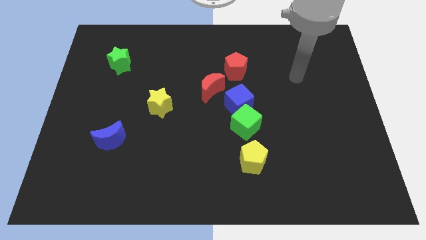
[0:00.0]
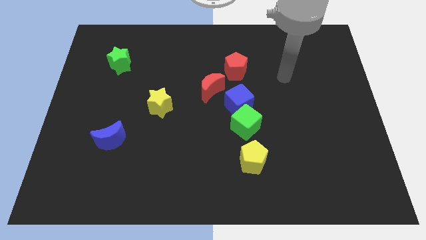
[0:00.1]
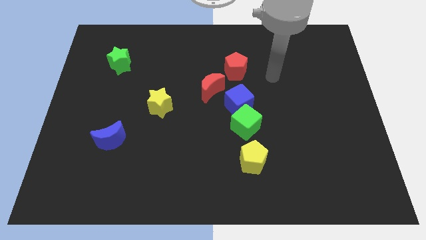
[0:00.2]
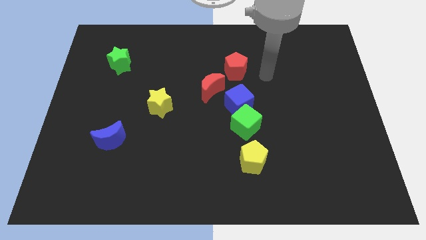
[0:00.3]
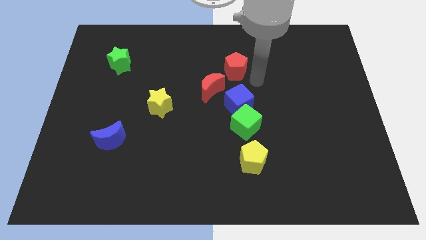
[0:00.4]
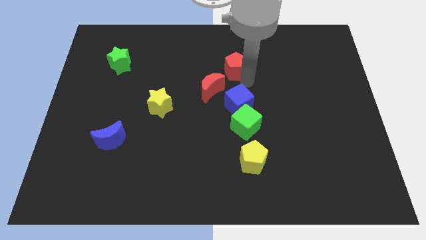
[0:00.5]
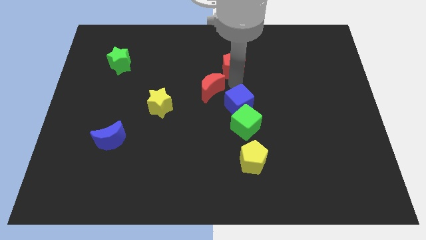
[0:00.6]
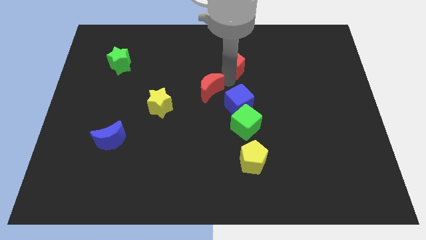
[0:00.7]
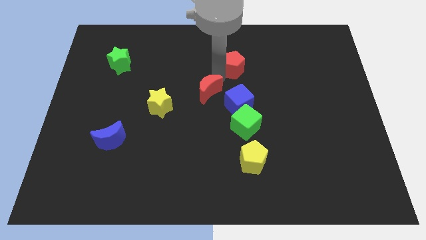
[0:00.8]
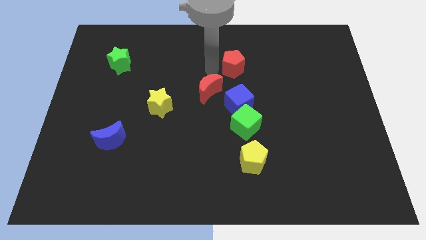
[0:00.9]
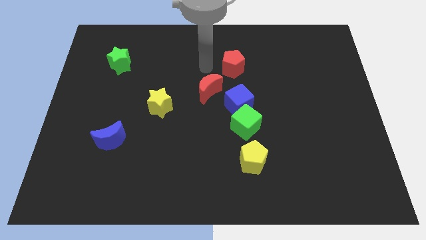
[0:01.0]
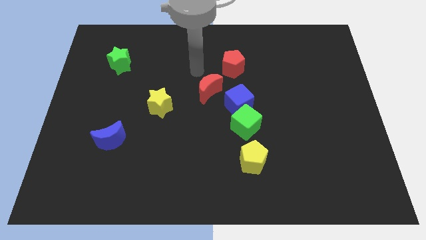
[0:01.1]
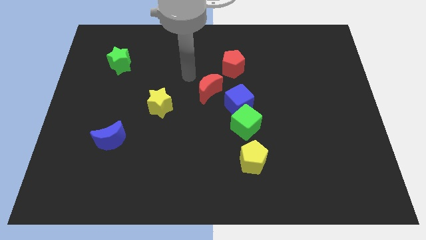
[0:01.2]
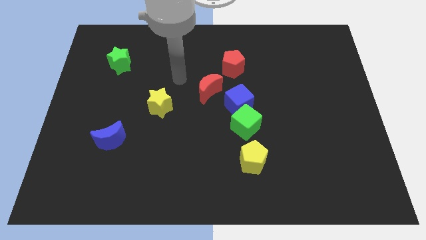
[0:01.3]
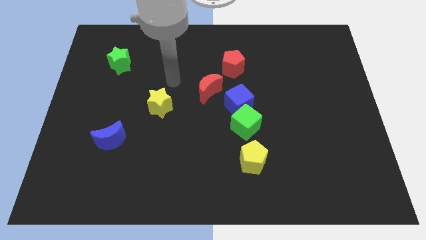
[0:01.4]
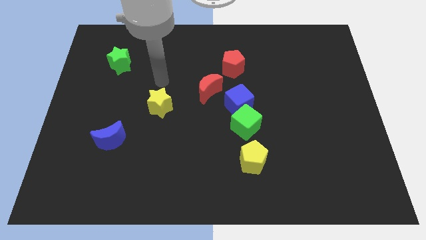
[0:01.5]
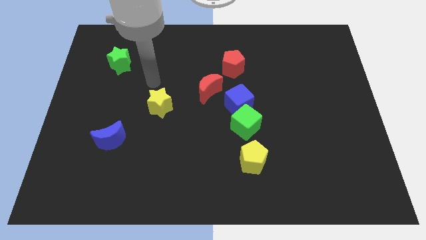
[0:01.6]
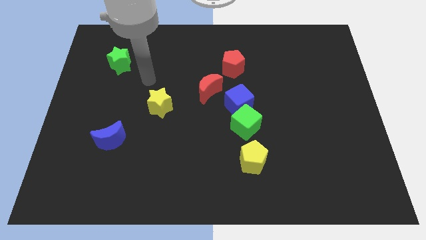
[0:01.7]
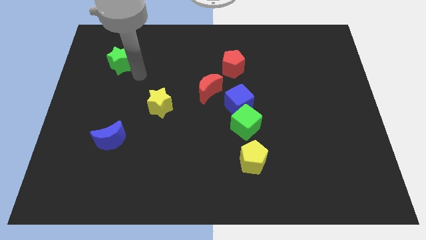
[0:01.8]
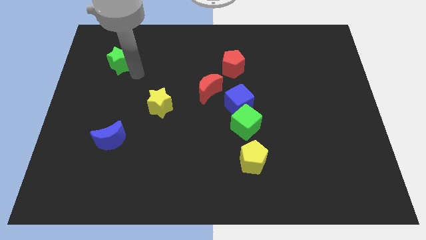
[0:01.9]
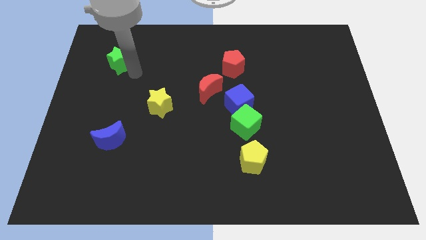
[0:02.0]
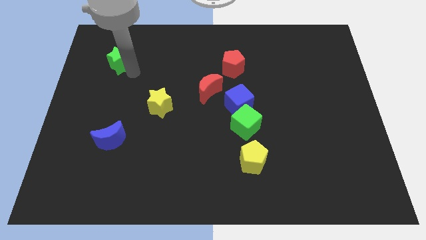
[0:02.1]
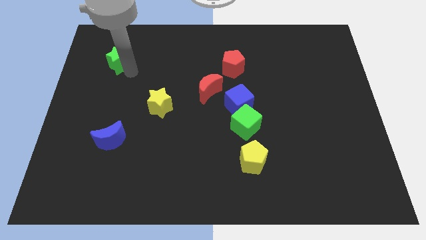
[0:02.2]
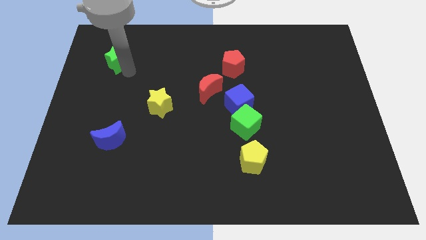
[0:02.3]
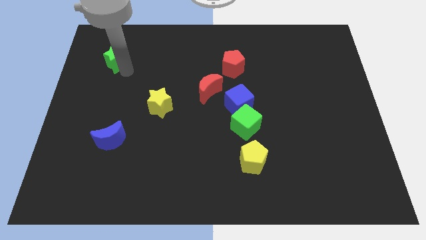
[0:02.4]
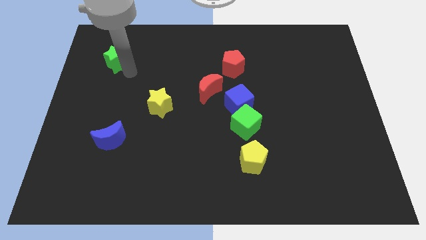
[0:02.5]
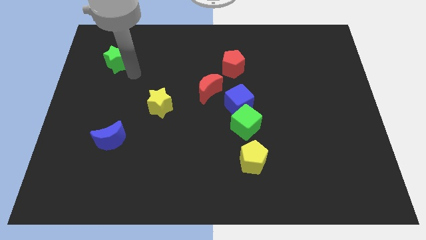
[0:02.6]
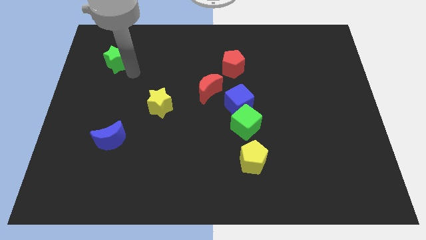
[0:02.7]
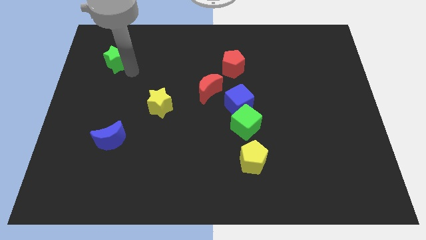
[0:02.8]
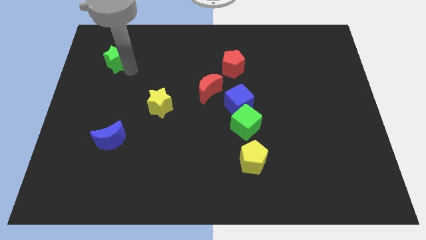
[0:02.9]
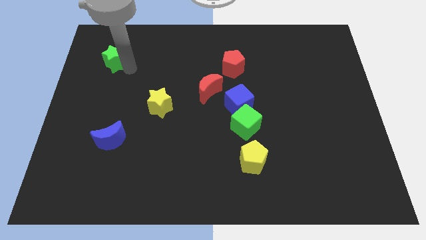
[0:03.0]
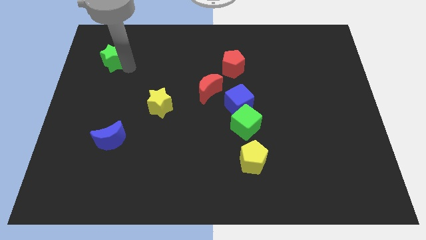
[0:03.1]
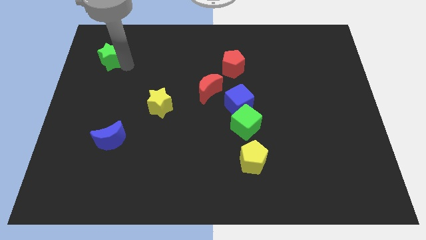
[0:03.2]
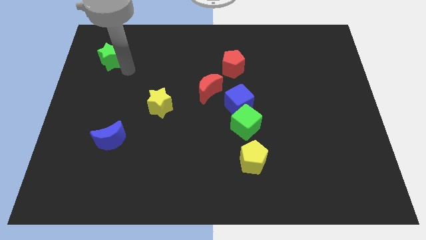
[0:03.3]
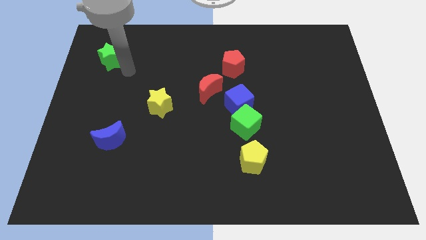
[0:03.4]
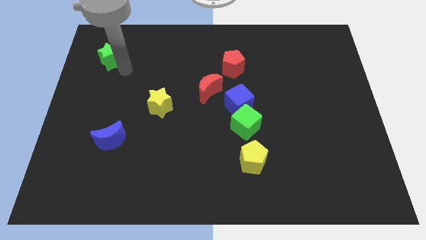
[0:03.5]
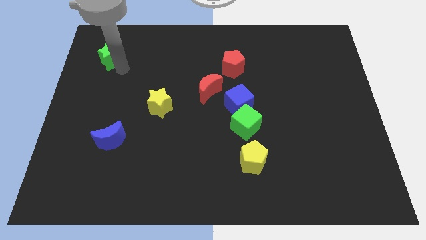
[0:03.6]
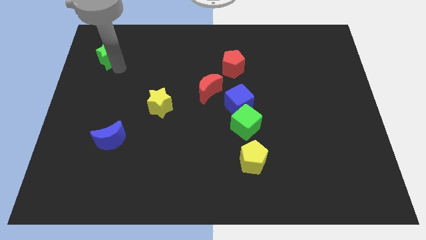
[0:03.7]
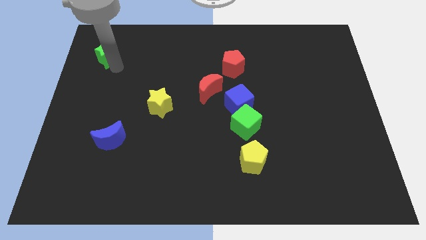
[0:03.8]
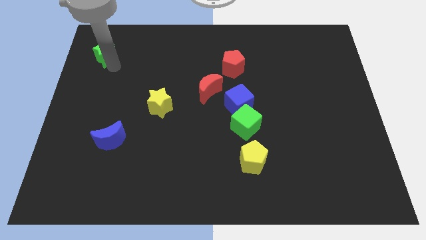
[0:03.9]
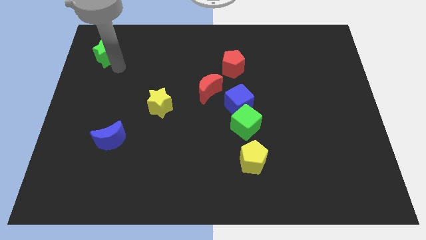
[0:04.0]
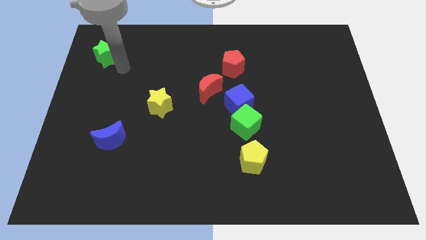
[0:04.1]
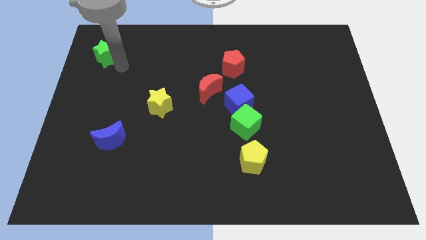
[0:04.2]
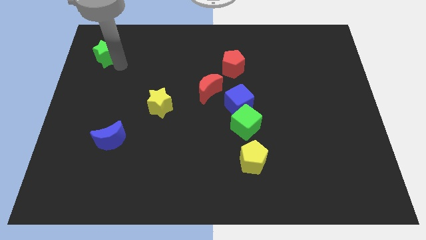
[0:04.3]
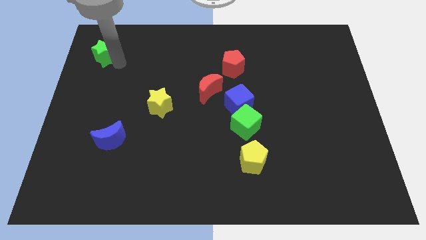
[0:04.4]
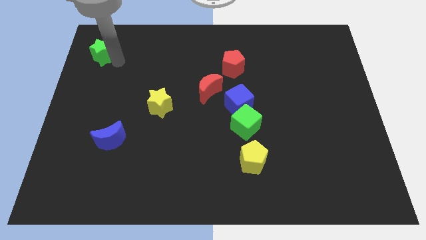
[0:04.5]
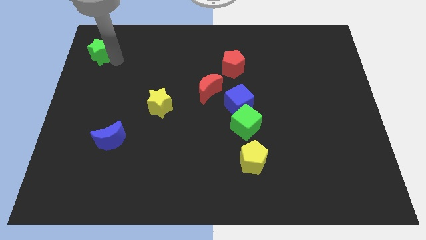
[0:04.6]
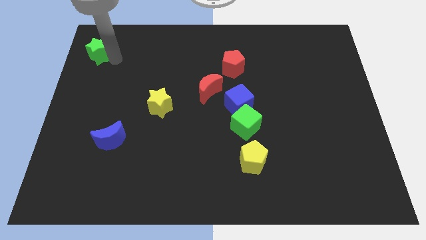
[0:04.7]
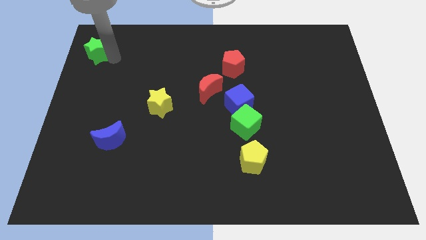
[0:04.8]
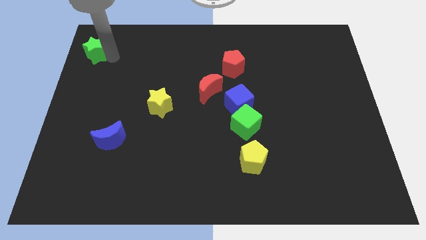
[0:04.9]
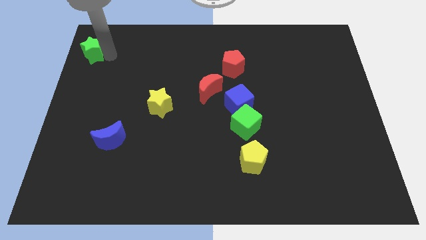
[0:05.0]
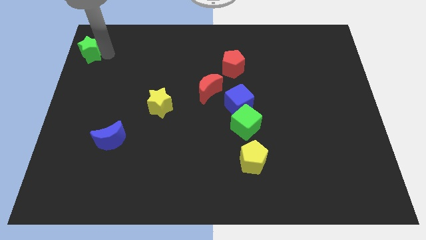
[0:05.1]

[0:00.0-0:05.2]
move the green star to the top left of the board

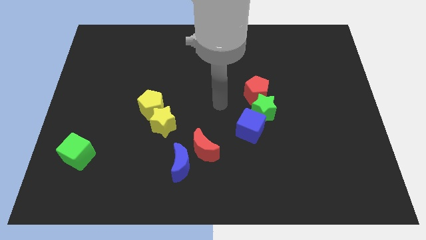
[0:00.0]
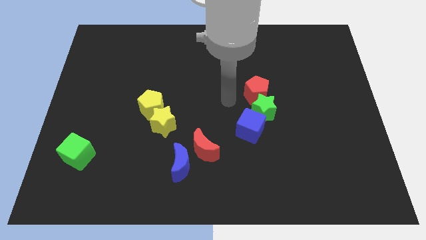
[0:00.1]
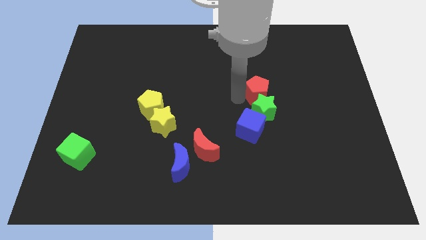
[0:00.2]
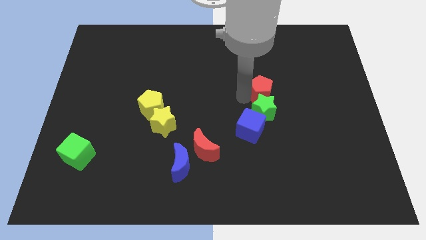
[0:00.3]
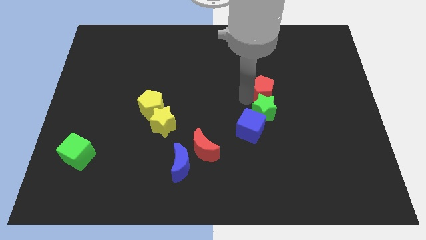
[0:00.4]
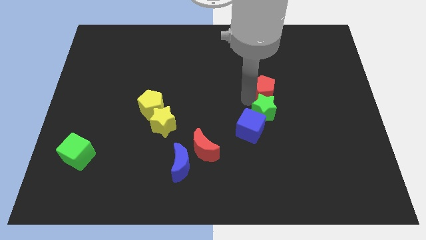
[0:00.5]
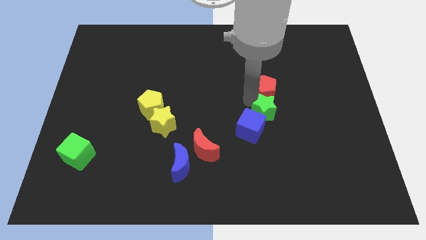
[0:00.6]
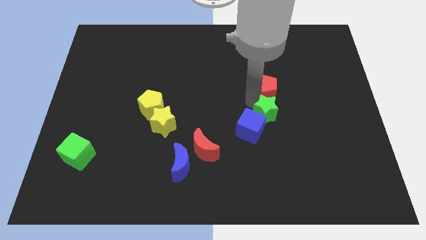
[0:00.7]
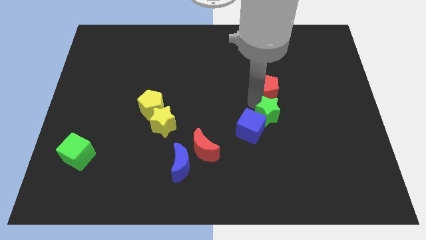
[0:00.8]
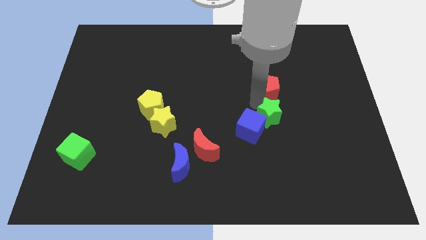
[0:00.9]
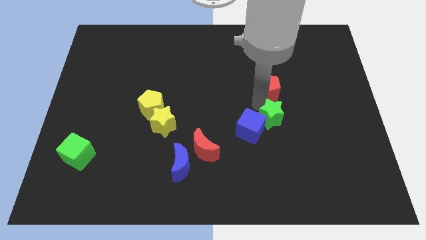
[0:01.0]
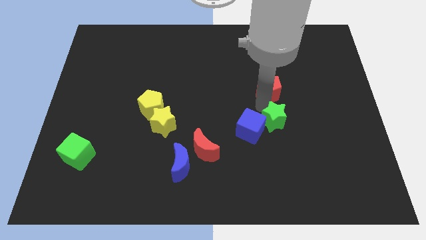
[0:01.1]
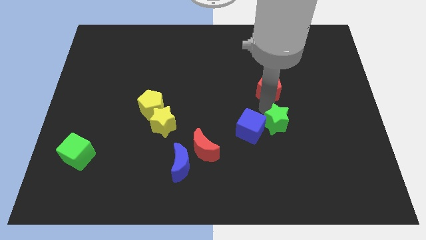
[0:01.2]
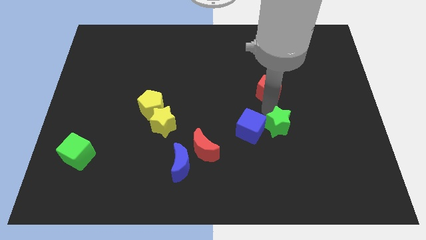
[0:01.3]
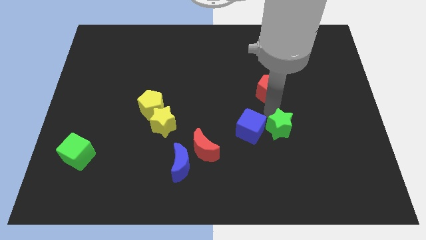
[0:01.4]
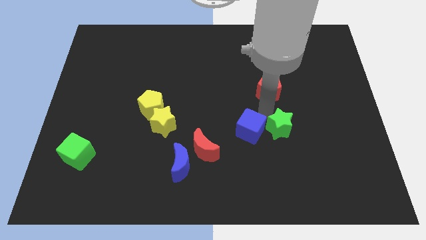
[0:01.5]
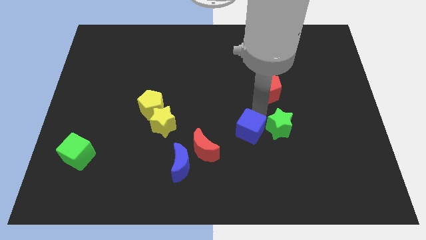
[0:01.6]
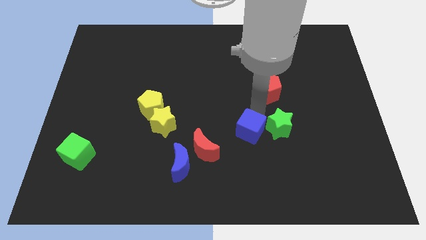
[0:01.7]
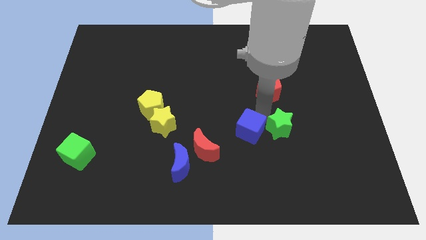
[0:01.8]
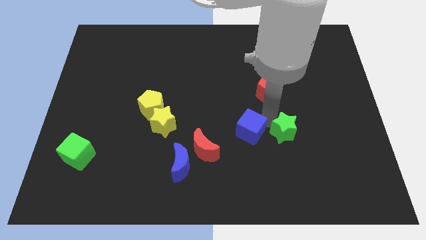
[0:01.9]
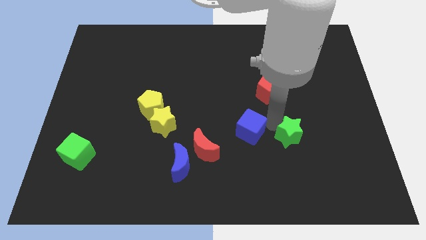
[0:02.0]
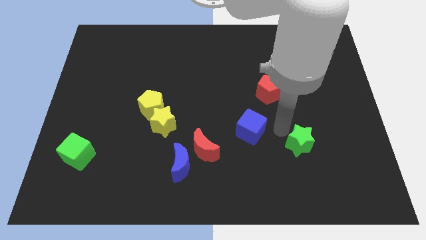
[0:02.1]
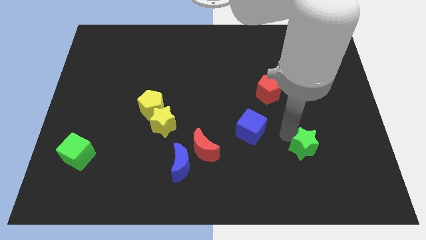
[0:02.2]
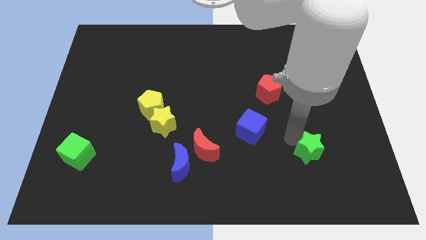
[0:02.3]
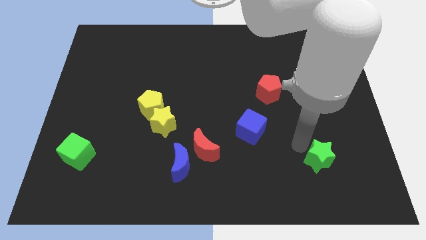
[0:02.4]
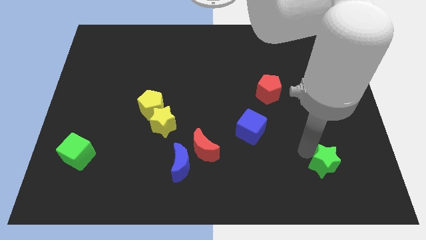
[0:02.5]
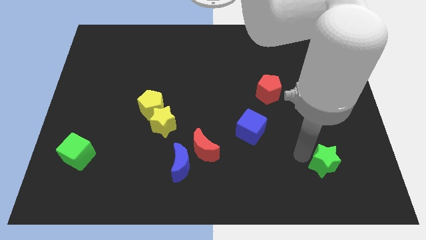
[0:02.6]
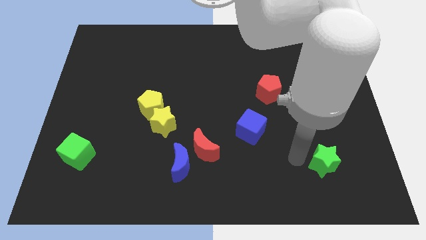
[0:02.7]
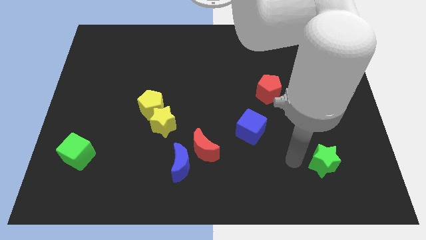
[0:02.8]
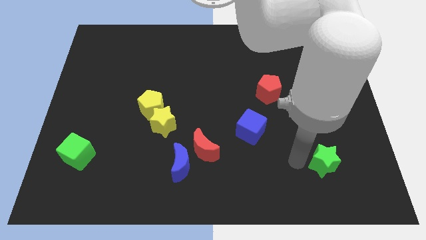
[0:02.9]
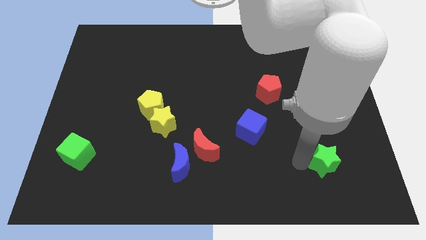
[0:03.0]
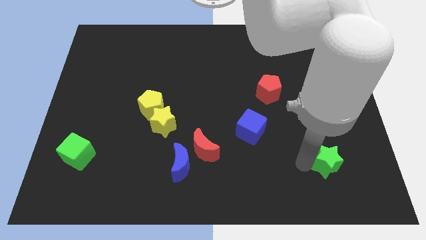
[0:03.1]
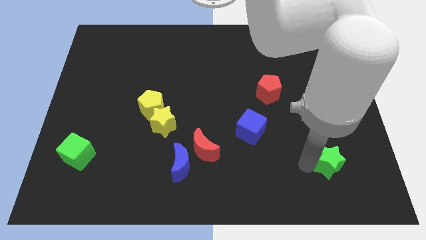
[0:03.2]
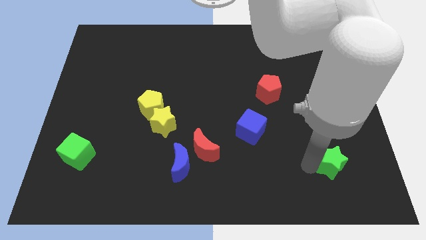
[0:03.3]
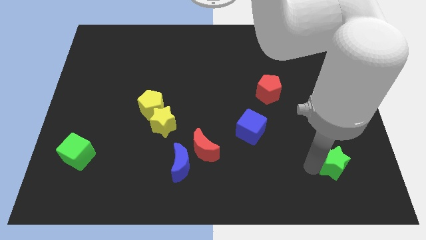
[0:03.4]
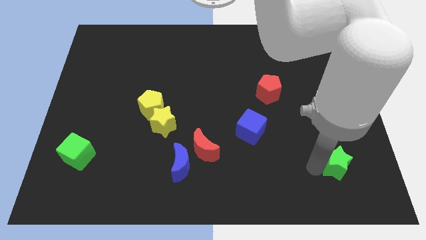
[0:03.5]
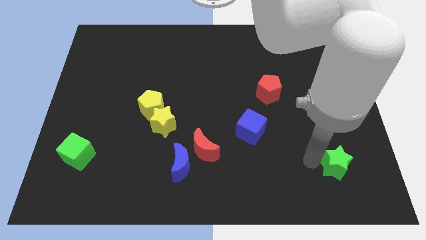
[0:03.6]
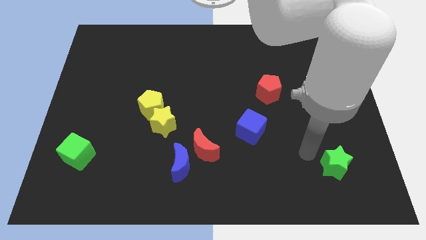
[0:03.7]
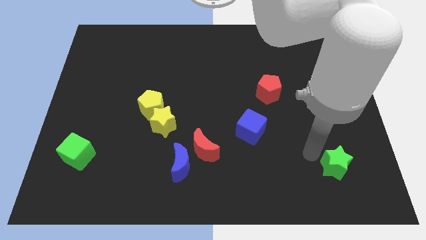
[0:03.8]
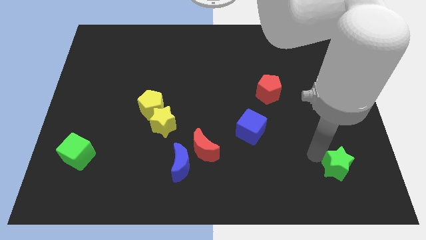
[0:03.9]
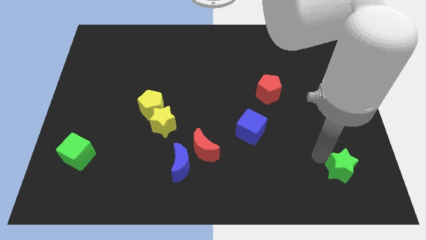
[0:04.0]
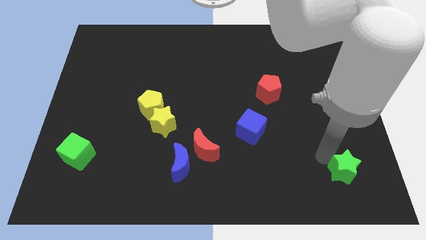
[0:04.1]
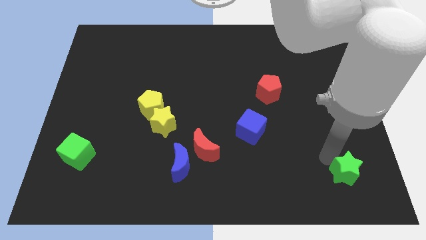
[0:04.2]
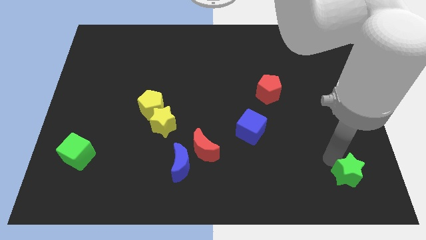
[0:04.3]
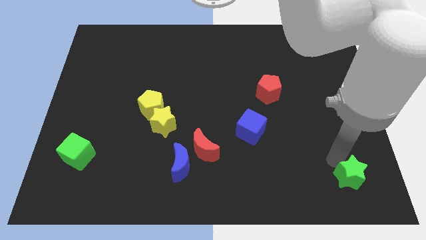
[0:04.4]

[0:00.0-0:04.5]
push the green star to the lower right corner
